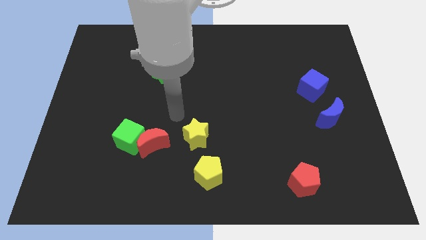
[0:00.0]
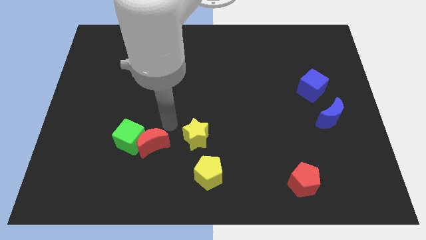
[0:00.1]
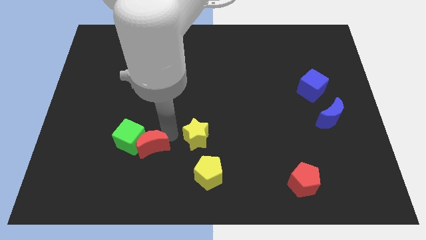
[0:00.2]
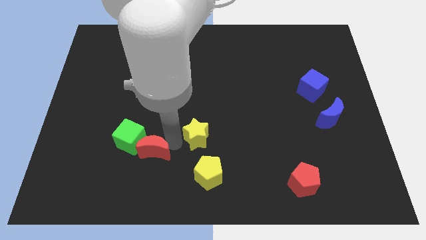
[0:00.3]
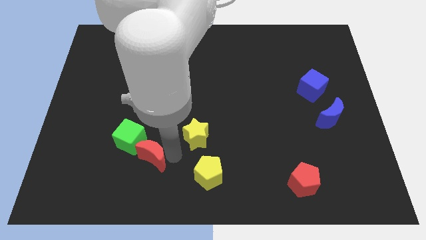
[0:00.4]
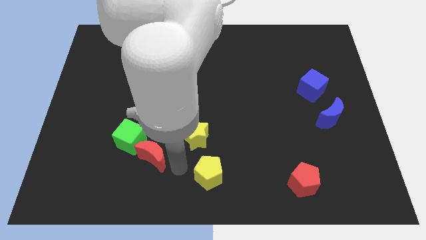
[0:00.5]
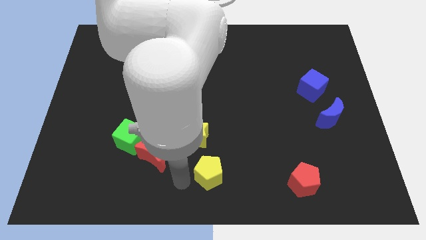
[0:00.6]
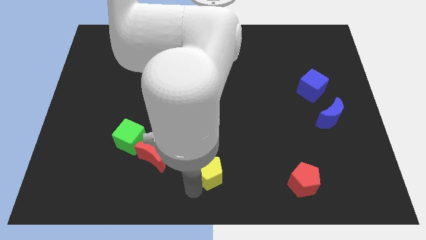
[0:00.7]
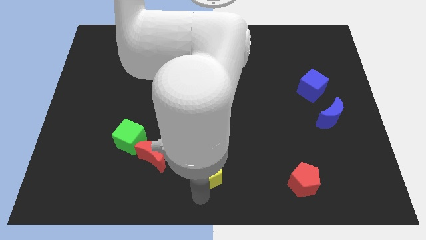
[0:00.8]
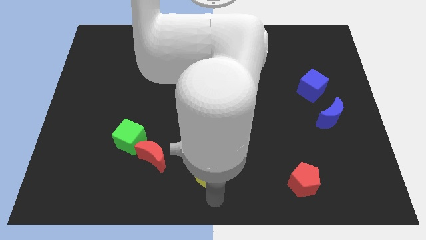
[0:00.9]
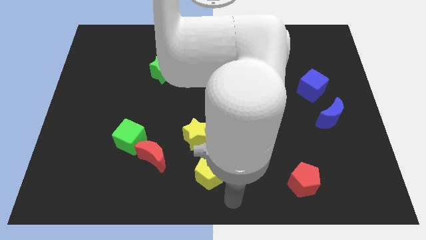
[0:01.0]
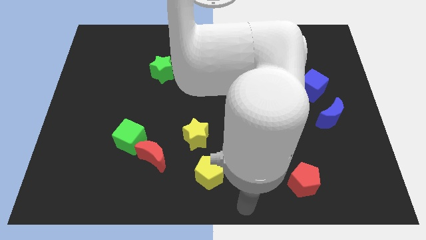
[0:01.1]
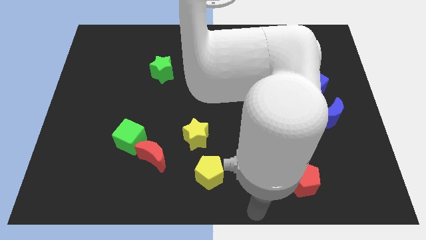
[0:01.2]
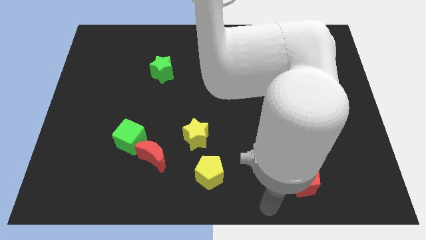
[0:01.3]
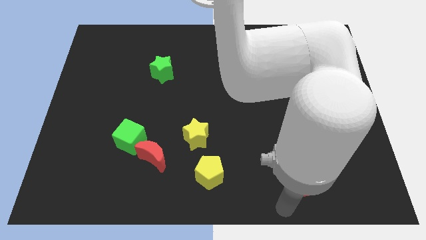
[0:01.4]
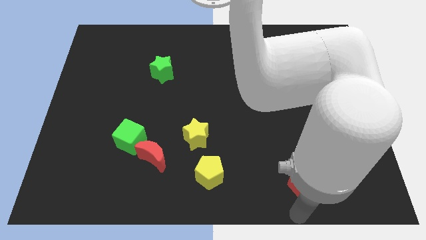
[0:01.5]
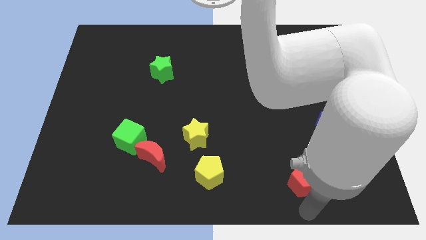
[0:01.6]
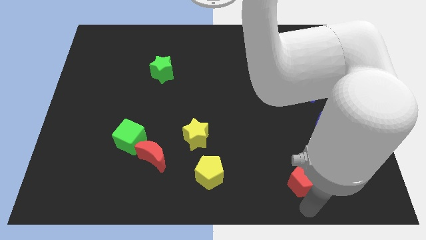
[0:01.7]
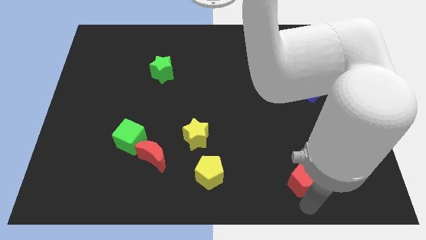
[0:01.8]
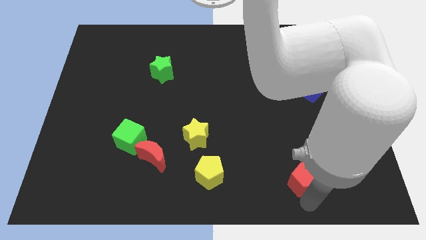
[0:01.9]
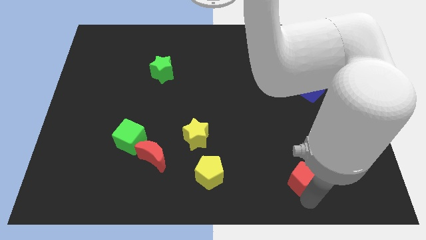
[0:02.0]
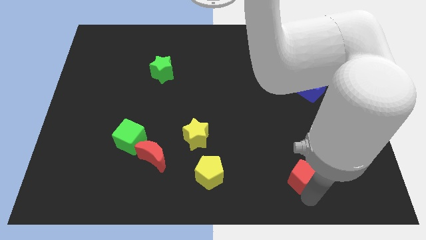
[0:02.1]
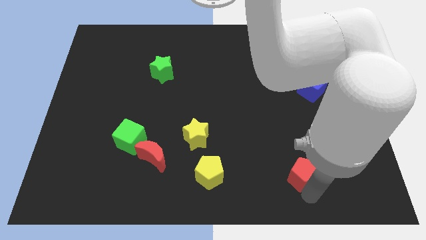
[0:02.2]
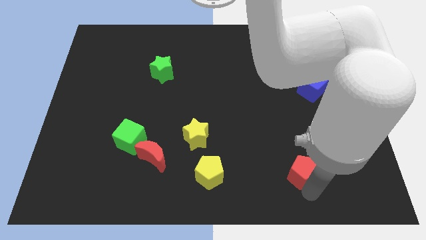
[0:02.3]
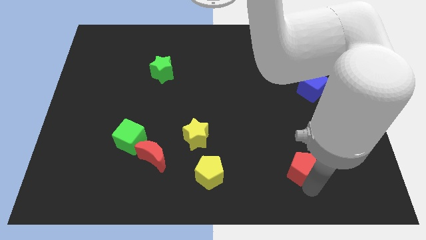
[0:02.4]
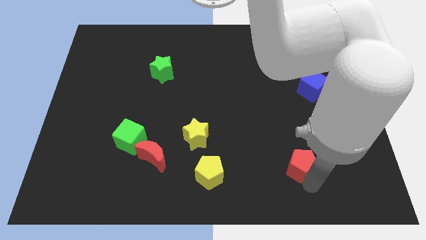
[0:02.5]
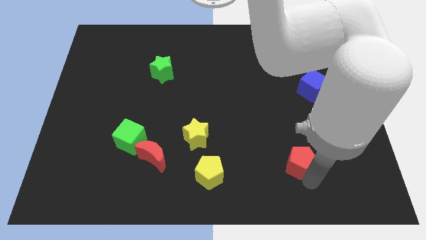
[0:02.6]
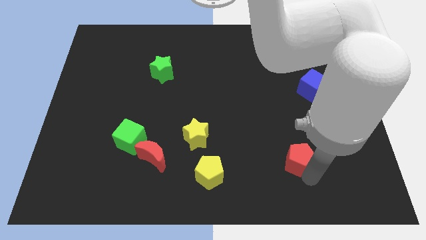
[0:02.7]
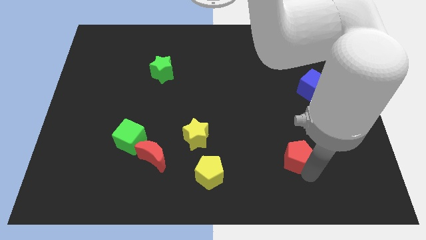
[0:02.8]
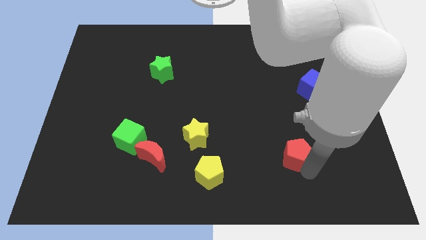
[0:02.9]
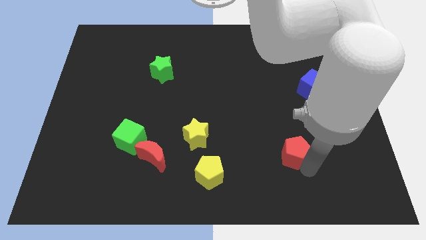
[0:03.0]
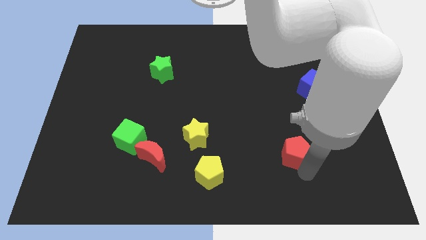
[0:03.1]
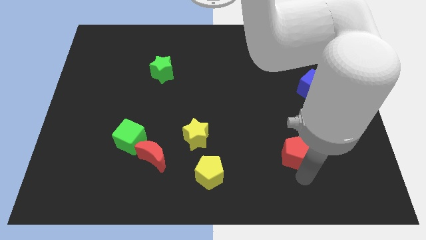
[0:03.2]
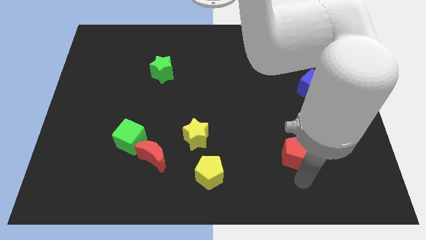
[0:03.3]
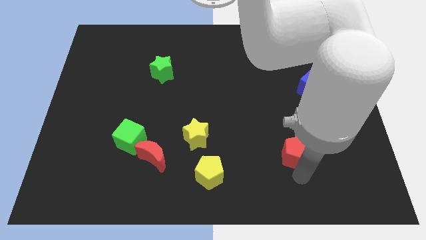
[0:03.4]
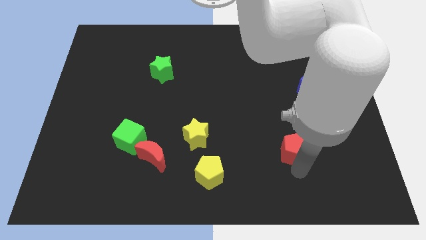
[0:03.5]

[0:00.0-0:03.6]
slightly move the red pentagon up

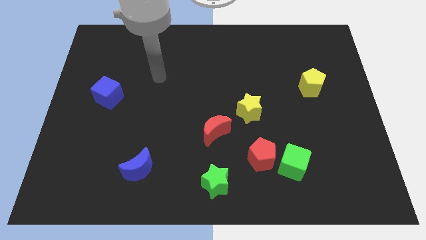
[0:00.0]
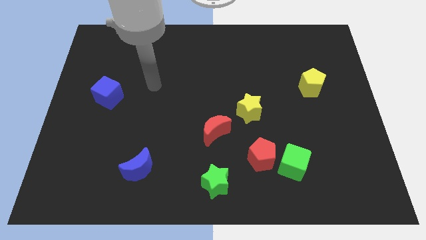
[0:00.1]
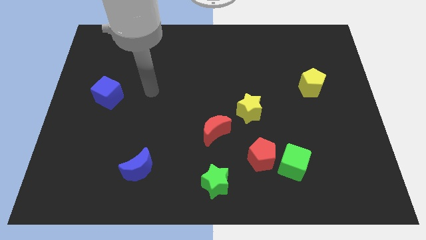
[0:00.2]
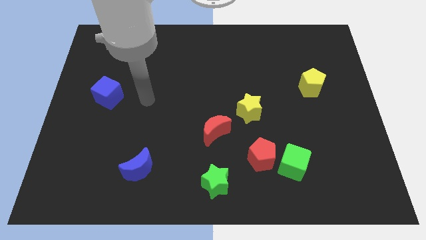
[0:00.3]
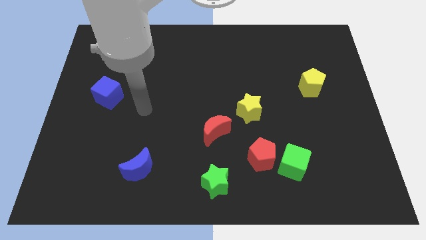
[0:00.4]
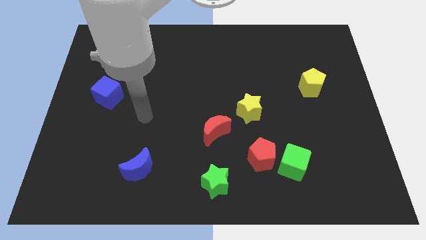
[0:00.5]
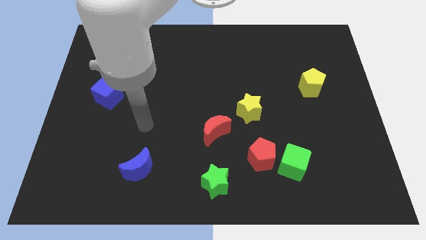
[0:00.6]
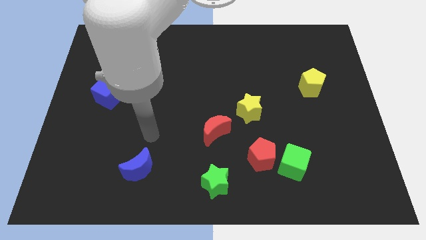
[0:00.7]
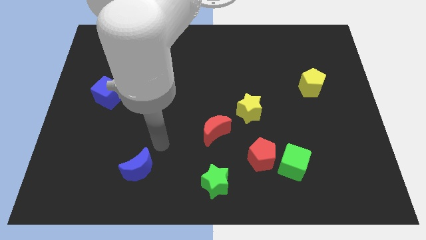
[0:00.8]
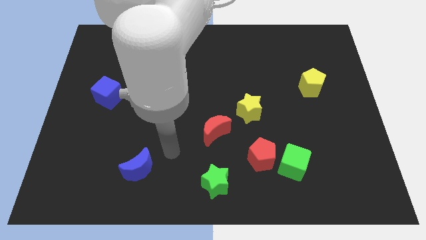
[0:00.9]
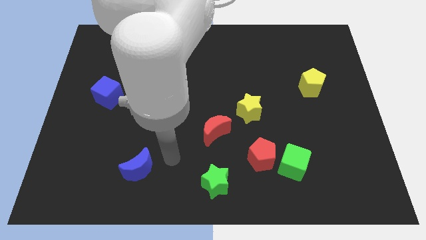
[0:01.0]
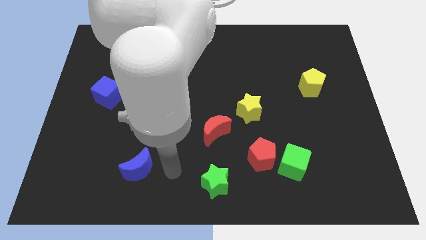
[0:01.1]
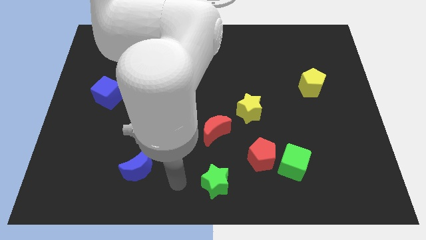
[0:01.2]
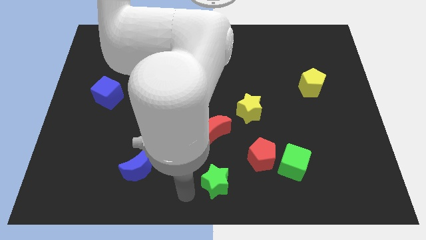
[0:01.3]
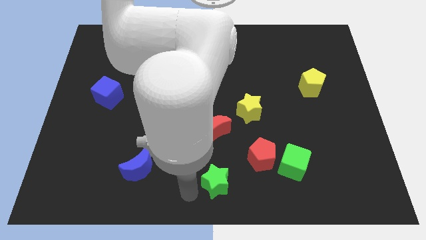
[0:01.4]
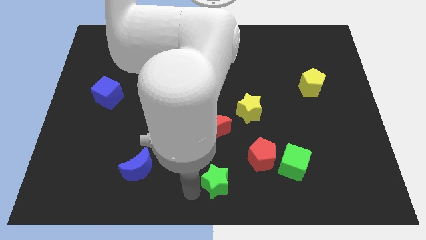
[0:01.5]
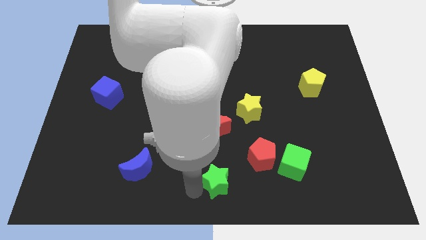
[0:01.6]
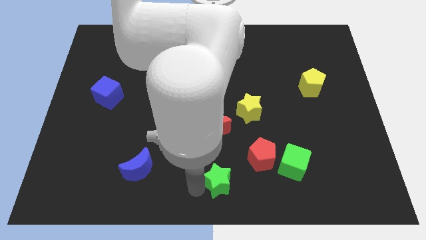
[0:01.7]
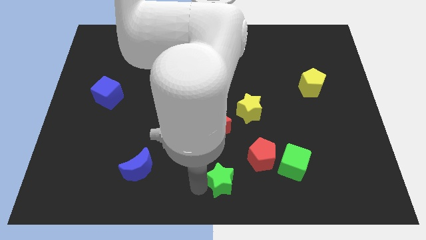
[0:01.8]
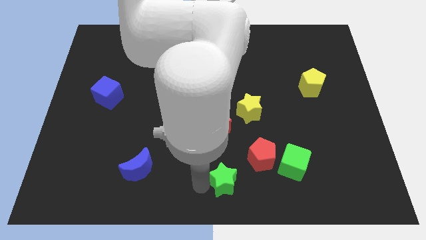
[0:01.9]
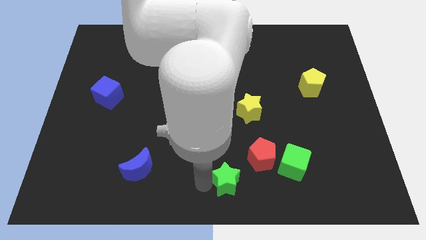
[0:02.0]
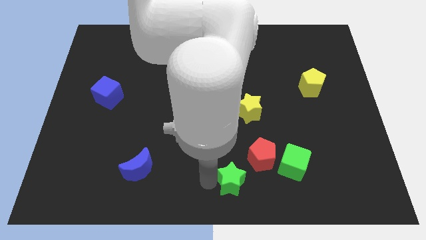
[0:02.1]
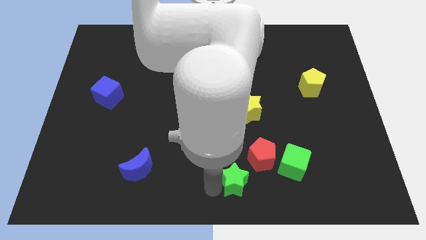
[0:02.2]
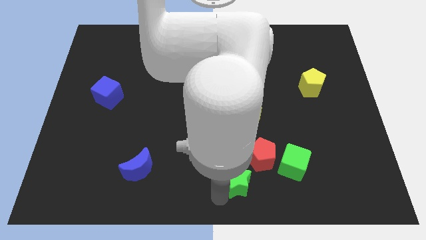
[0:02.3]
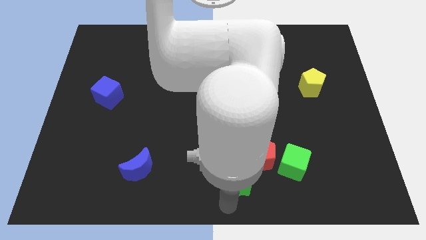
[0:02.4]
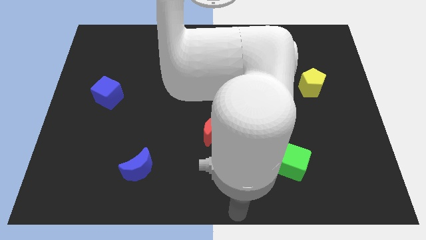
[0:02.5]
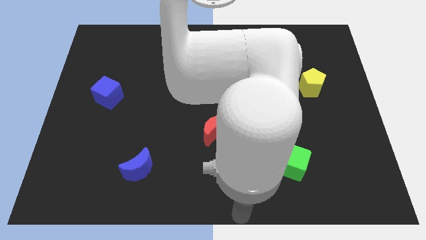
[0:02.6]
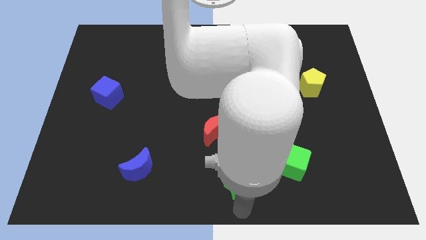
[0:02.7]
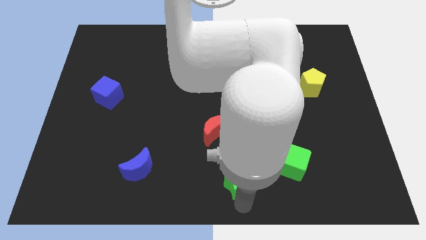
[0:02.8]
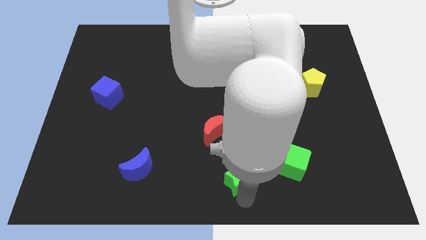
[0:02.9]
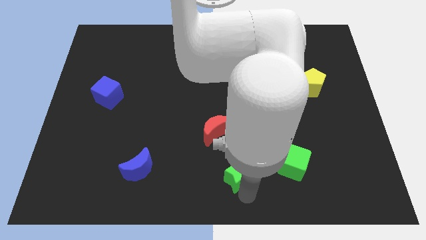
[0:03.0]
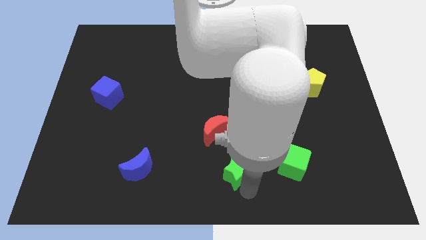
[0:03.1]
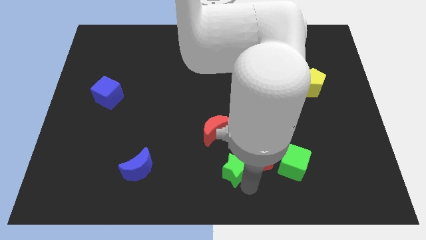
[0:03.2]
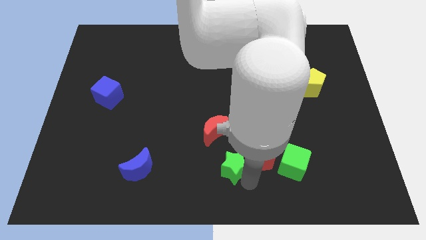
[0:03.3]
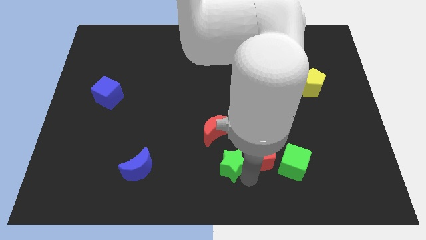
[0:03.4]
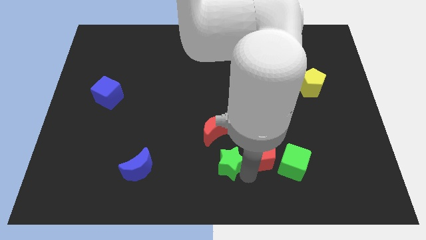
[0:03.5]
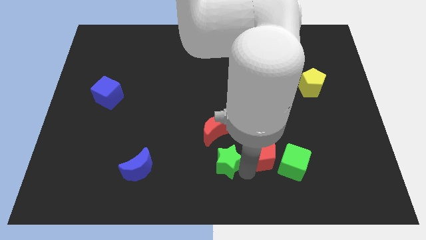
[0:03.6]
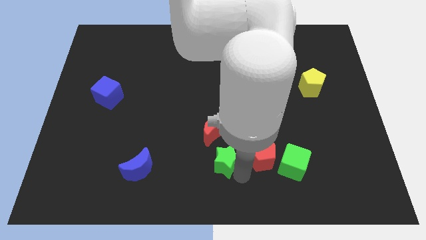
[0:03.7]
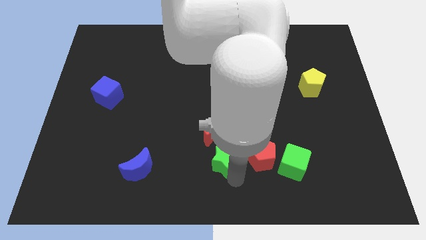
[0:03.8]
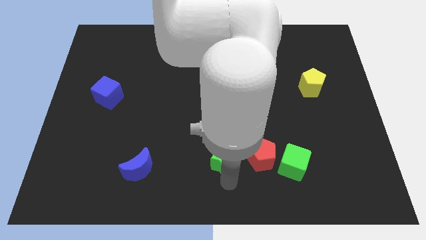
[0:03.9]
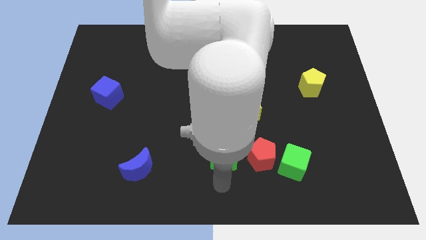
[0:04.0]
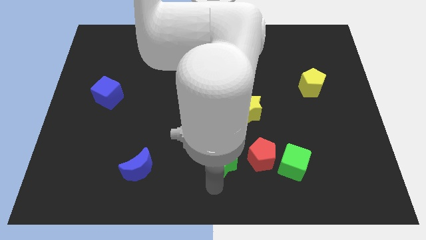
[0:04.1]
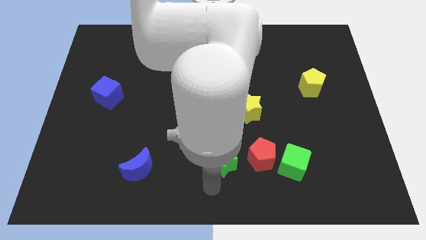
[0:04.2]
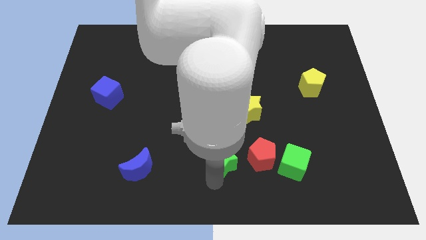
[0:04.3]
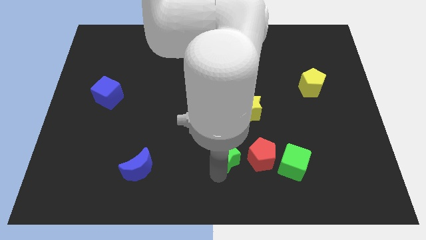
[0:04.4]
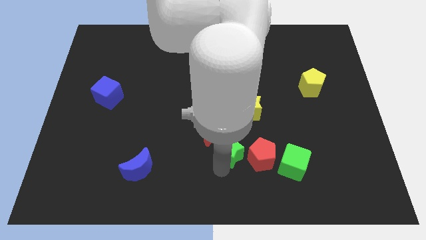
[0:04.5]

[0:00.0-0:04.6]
move the green star up somewhat
